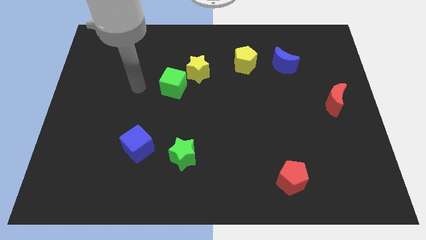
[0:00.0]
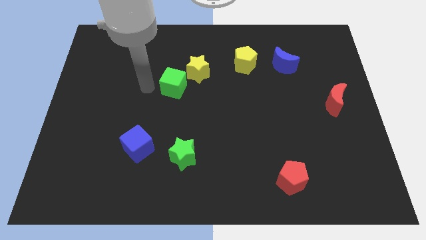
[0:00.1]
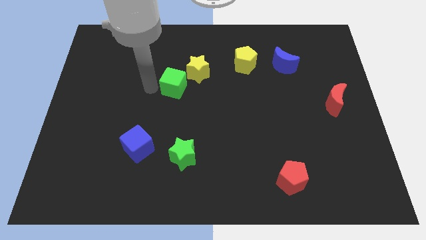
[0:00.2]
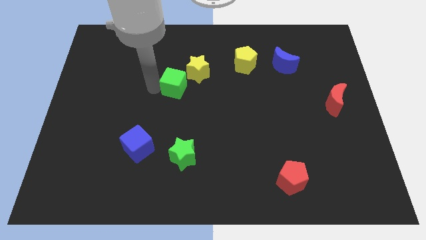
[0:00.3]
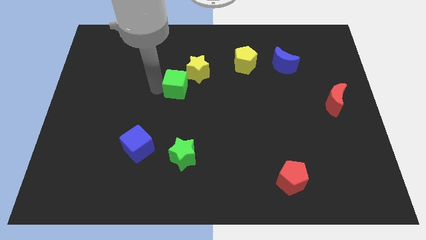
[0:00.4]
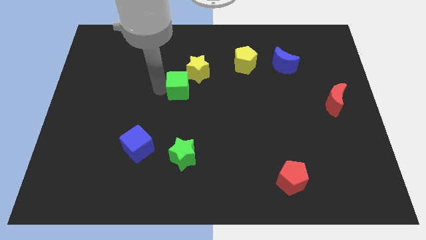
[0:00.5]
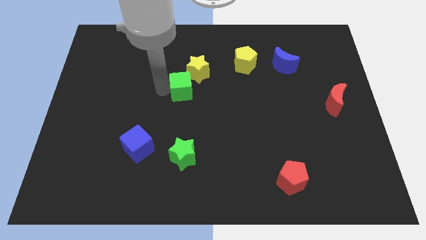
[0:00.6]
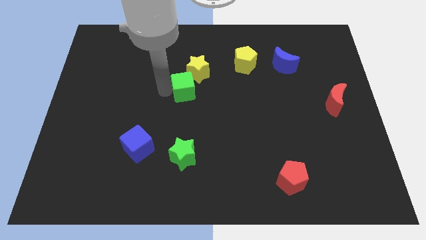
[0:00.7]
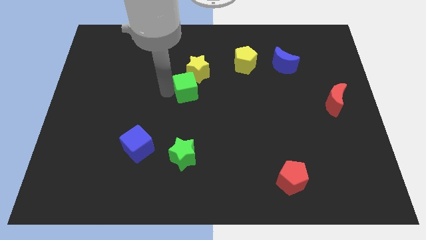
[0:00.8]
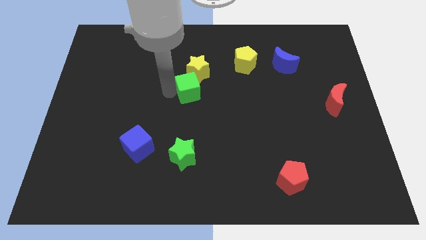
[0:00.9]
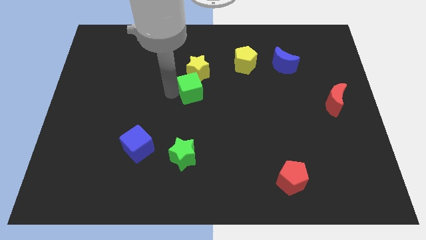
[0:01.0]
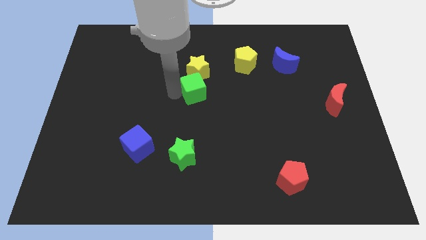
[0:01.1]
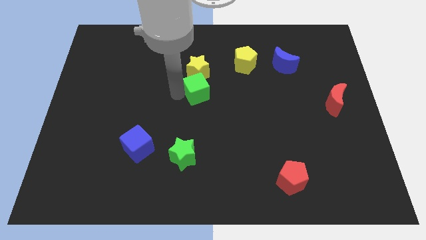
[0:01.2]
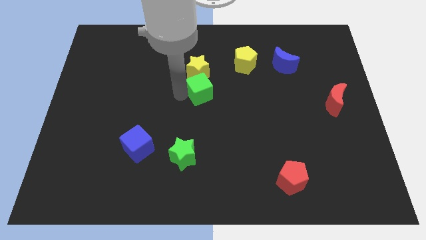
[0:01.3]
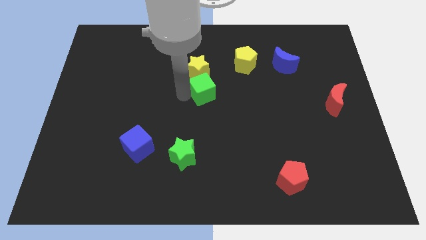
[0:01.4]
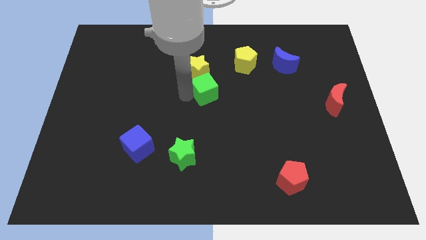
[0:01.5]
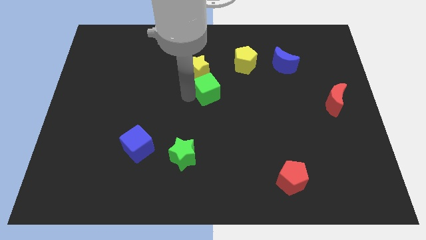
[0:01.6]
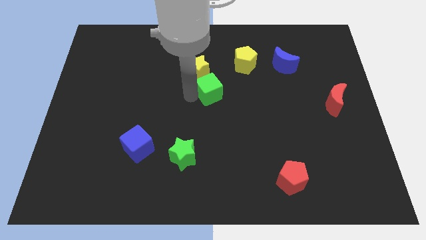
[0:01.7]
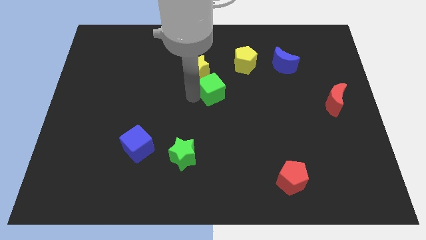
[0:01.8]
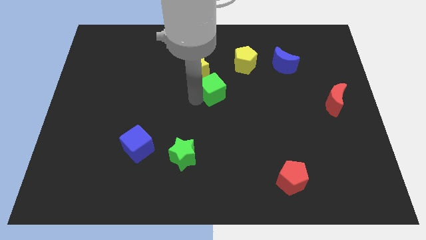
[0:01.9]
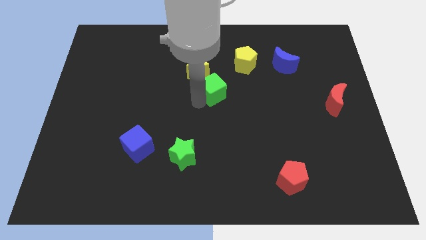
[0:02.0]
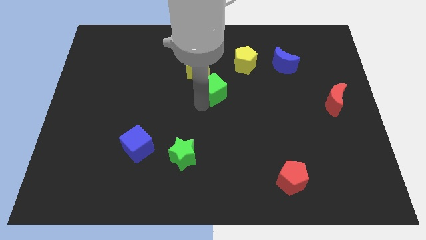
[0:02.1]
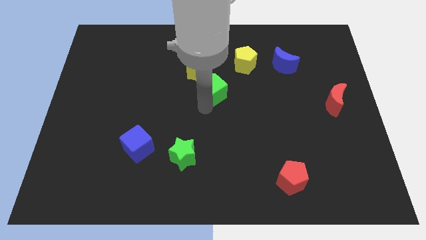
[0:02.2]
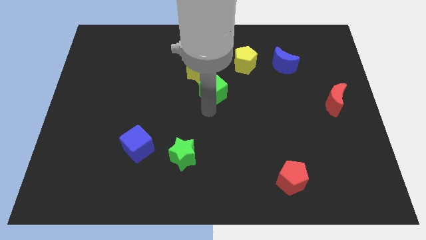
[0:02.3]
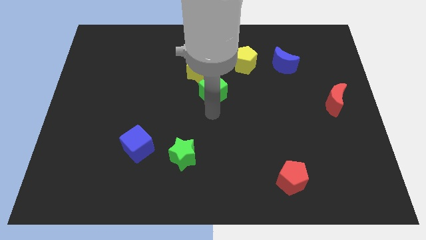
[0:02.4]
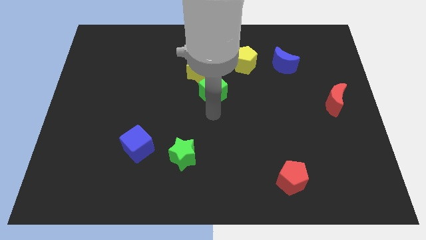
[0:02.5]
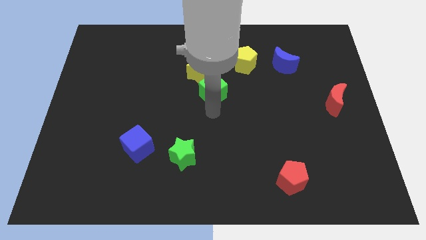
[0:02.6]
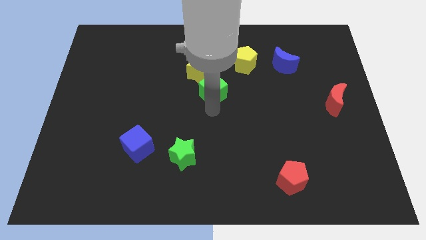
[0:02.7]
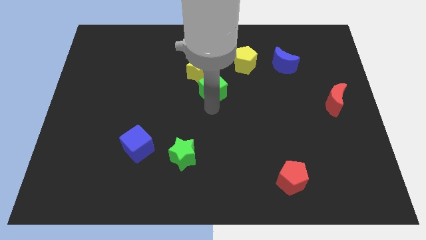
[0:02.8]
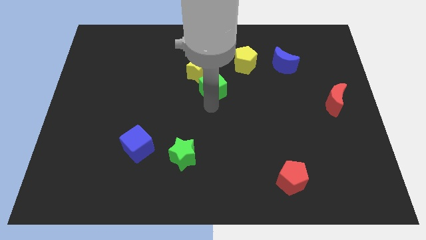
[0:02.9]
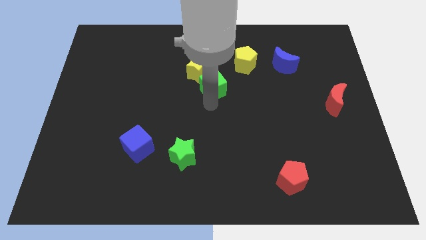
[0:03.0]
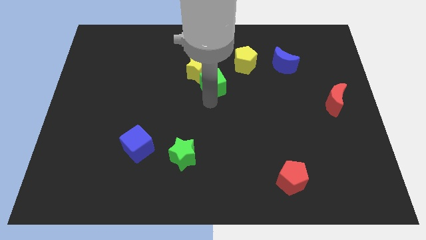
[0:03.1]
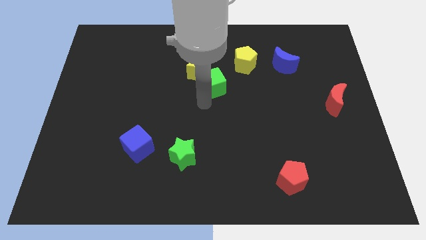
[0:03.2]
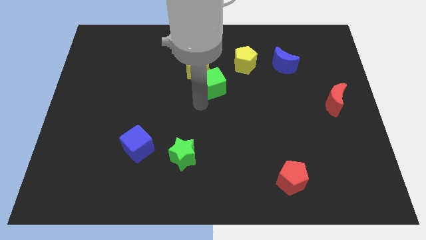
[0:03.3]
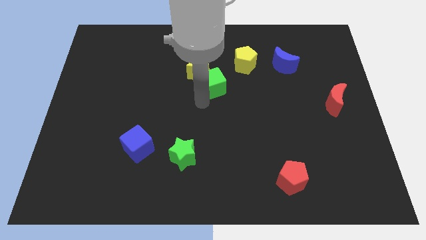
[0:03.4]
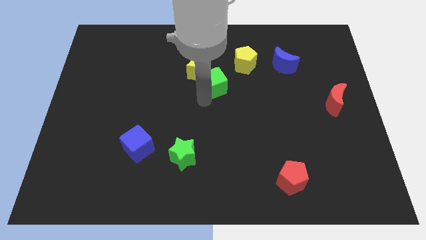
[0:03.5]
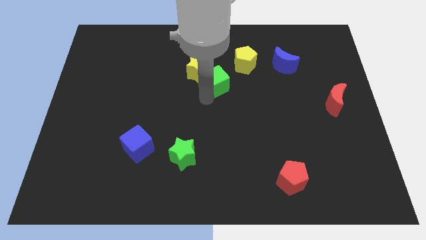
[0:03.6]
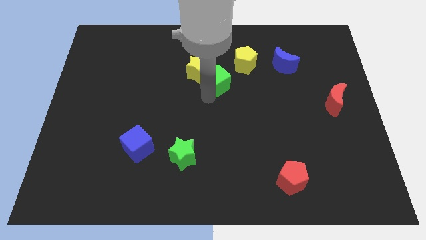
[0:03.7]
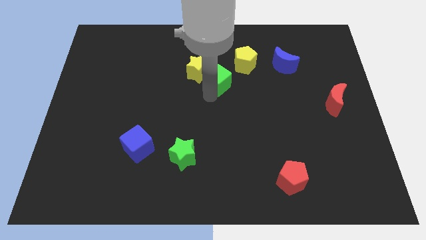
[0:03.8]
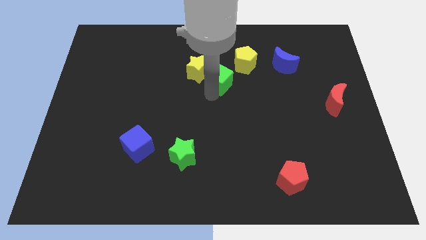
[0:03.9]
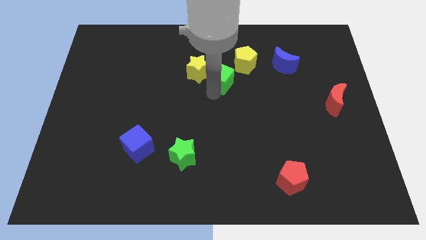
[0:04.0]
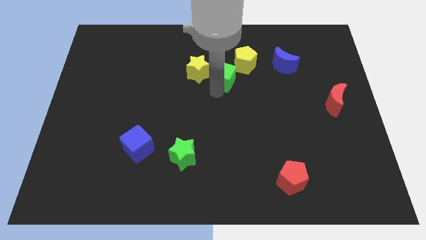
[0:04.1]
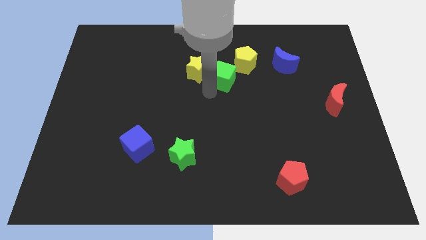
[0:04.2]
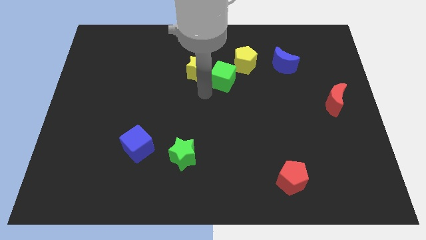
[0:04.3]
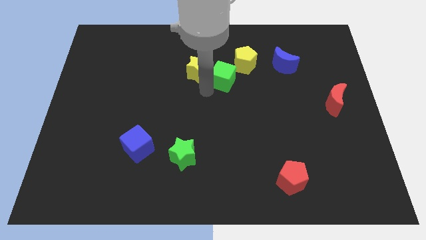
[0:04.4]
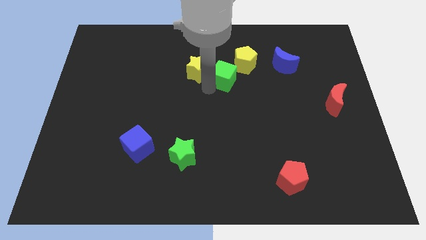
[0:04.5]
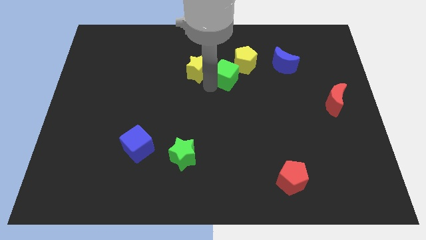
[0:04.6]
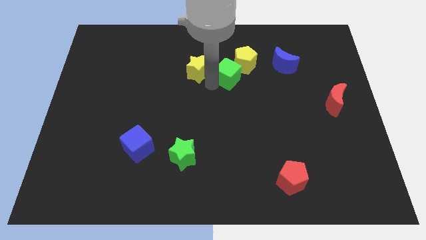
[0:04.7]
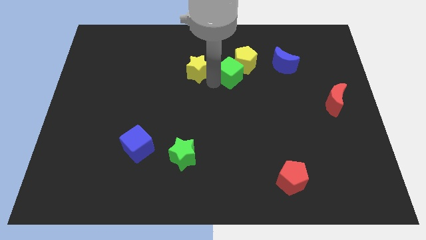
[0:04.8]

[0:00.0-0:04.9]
move the green cube next to the yellow pentagon

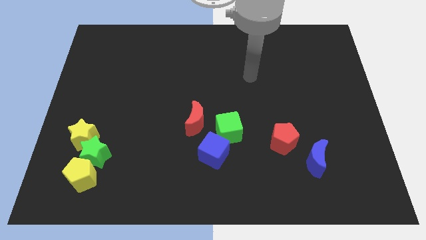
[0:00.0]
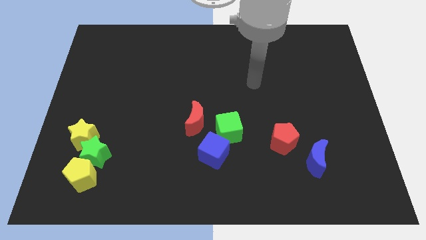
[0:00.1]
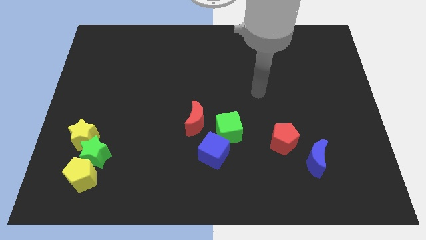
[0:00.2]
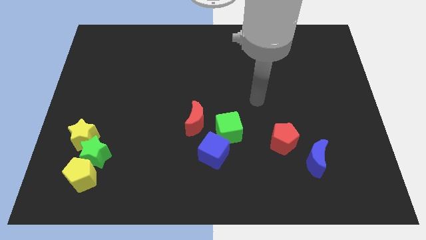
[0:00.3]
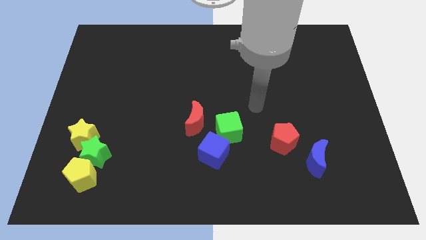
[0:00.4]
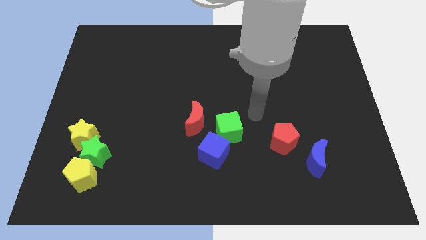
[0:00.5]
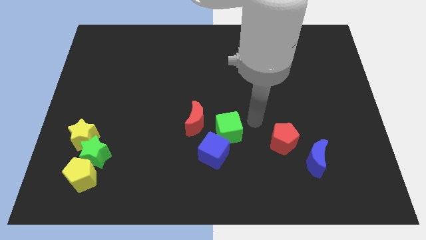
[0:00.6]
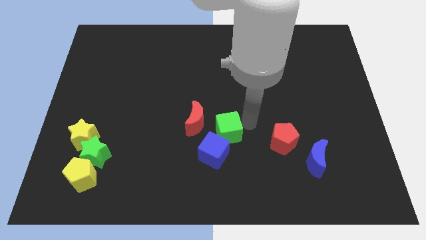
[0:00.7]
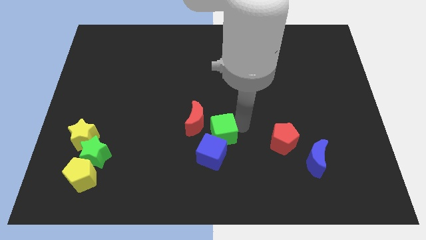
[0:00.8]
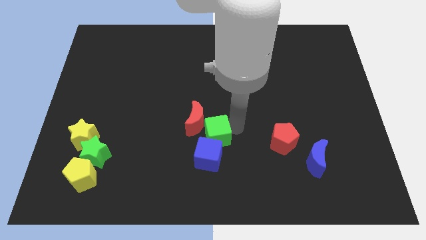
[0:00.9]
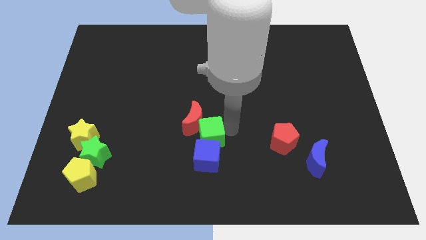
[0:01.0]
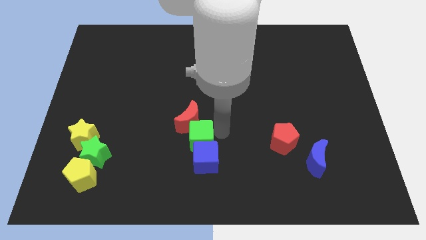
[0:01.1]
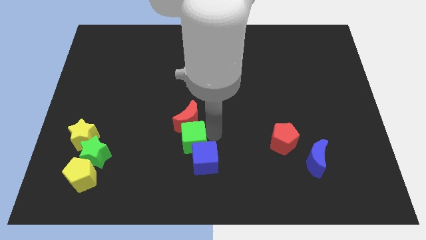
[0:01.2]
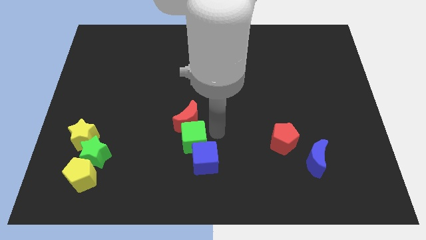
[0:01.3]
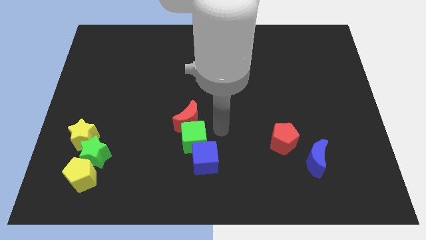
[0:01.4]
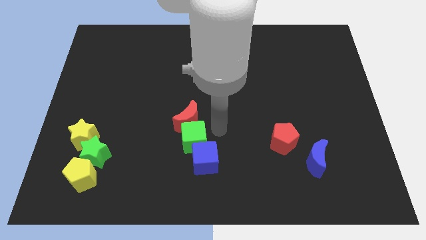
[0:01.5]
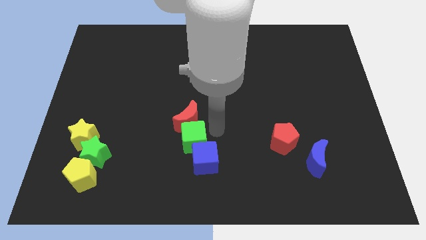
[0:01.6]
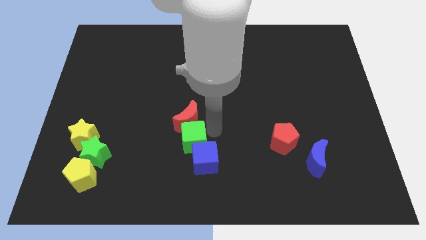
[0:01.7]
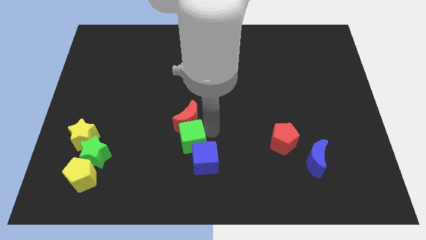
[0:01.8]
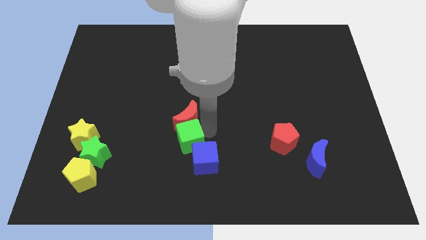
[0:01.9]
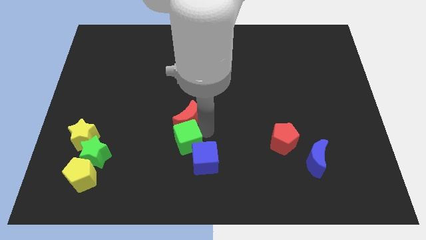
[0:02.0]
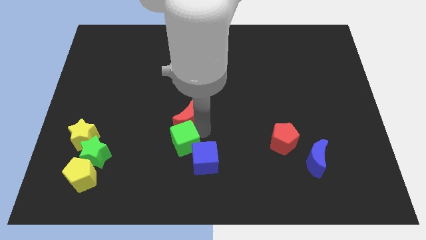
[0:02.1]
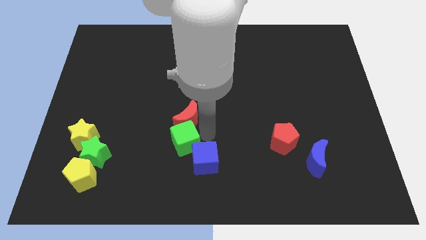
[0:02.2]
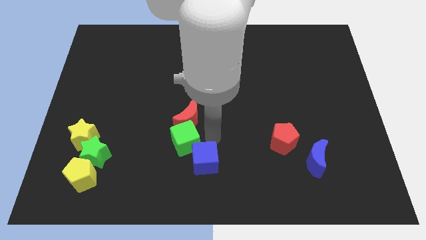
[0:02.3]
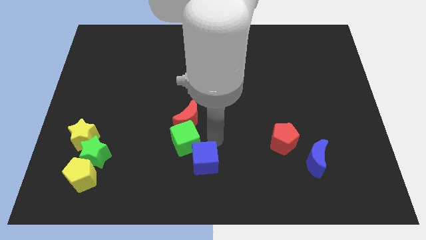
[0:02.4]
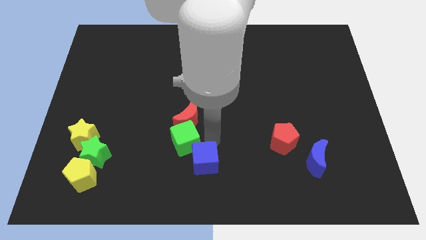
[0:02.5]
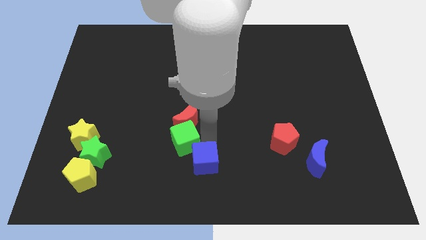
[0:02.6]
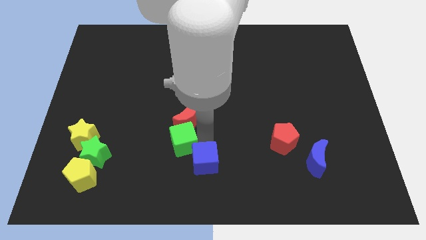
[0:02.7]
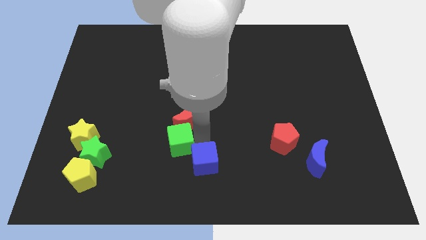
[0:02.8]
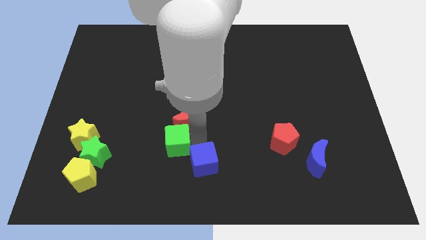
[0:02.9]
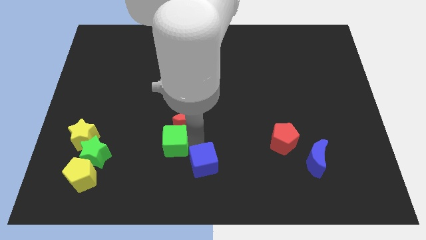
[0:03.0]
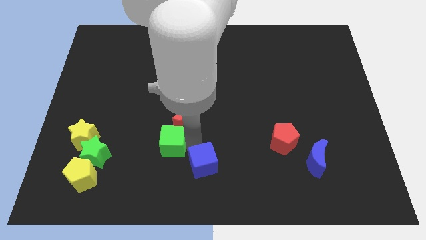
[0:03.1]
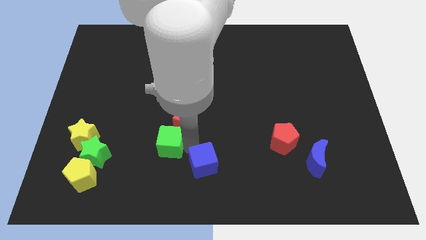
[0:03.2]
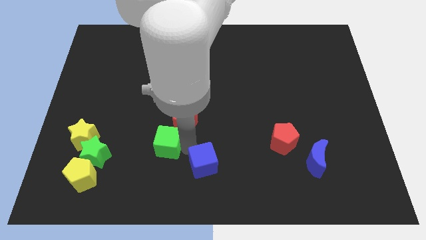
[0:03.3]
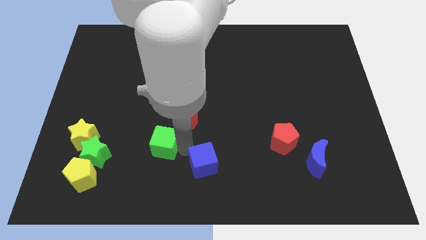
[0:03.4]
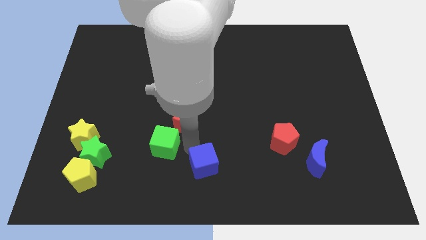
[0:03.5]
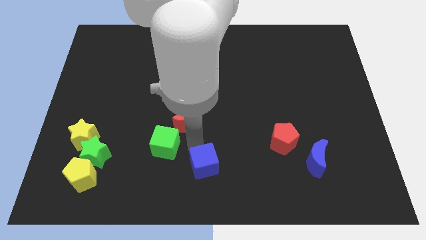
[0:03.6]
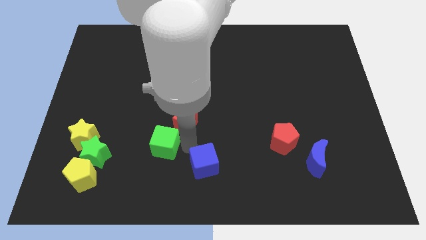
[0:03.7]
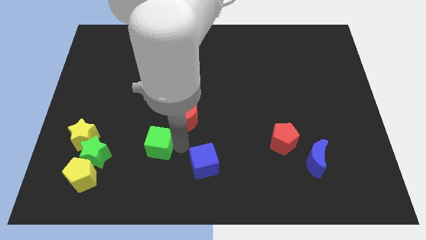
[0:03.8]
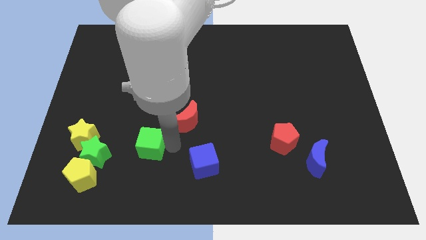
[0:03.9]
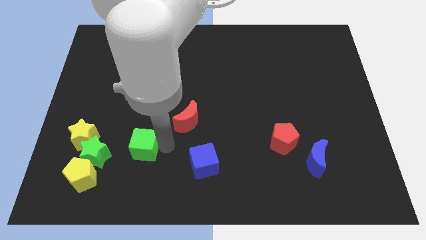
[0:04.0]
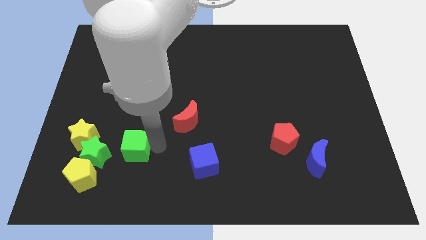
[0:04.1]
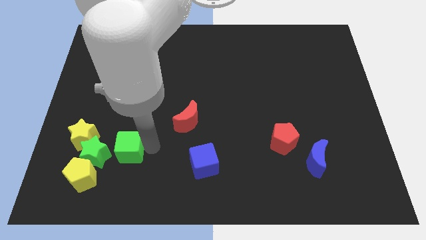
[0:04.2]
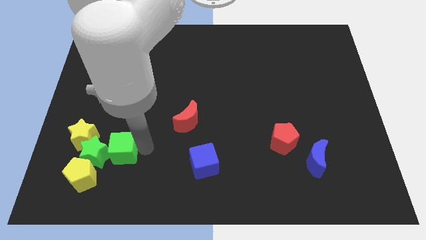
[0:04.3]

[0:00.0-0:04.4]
move the green cube towards the green star
